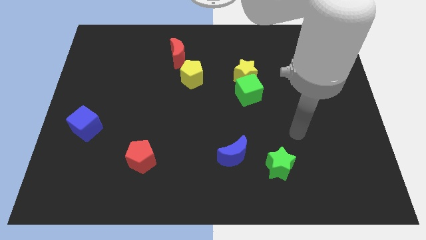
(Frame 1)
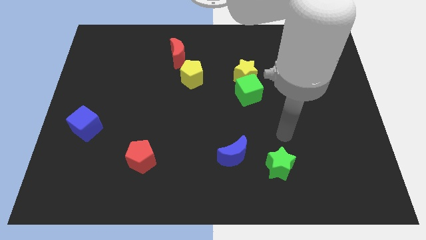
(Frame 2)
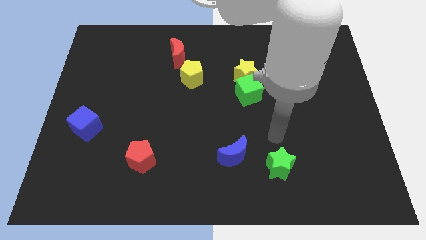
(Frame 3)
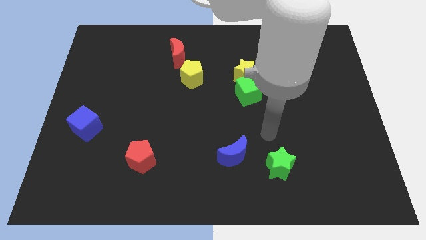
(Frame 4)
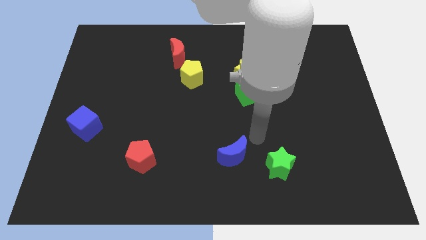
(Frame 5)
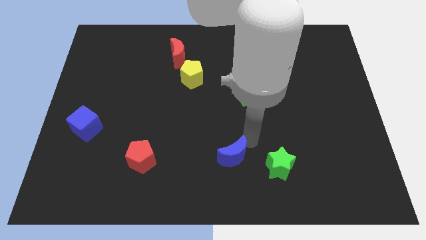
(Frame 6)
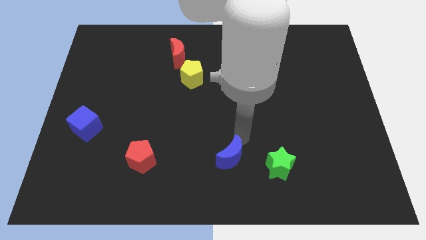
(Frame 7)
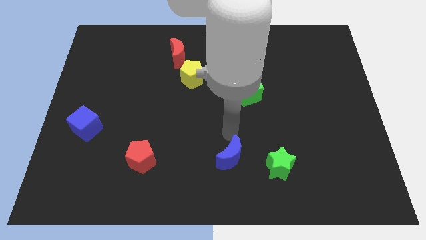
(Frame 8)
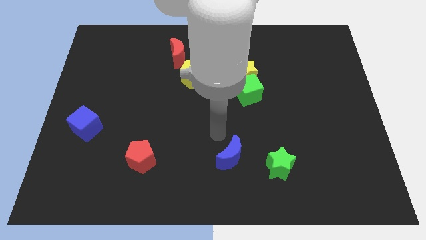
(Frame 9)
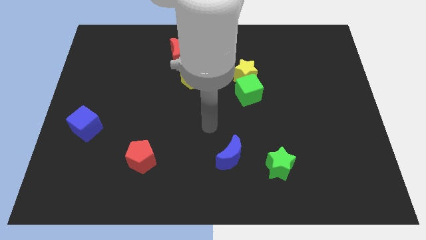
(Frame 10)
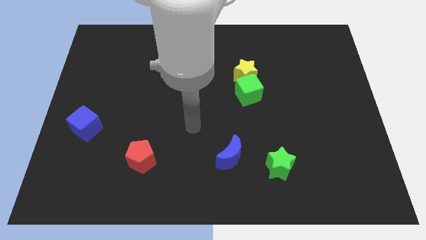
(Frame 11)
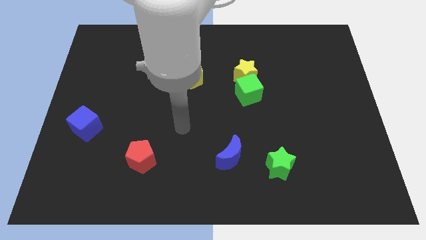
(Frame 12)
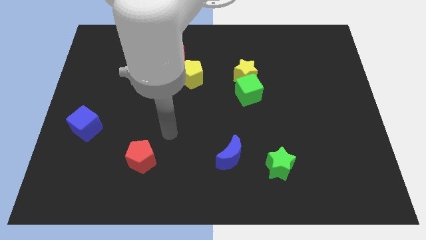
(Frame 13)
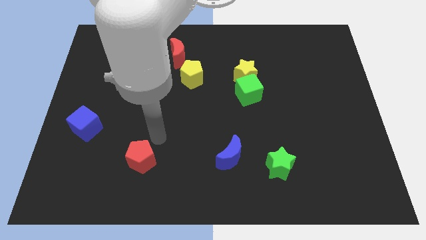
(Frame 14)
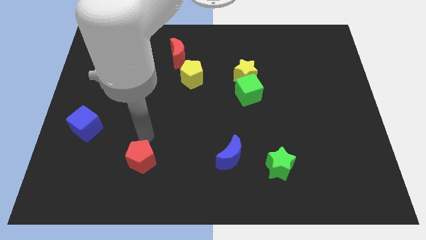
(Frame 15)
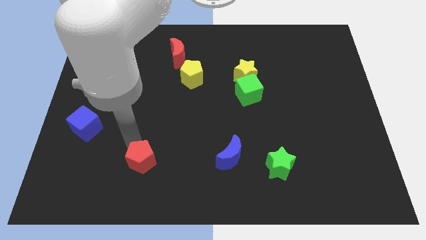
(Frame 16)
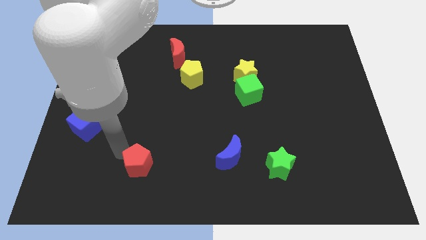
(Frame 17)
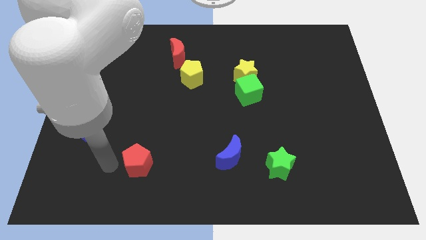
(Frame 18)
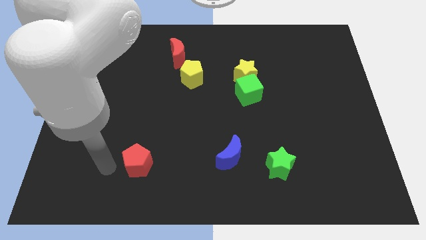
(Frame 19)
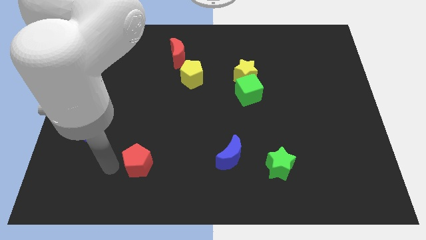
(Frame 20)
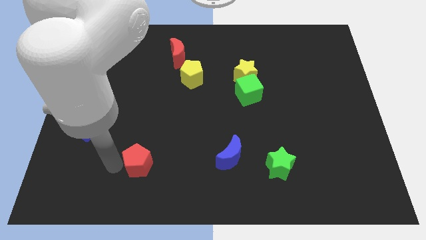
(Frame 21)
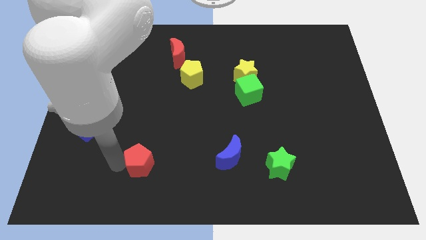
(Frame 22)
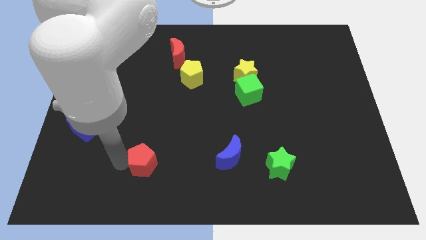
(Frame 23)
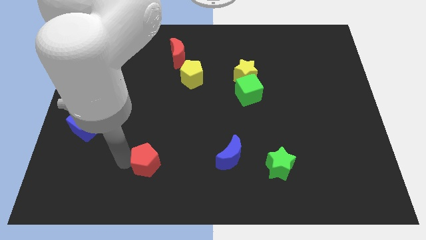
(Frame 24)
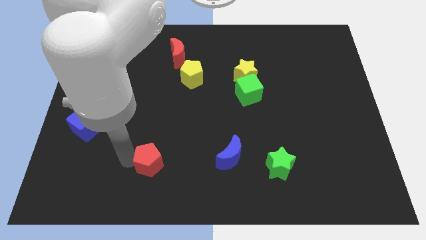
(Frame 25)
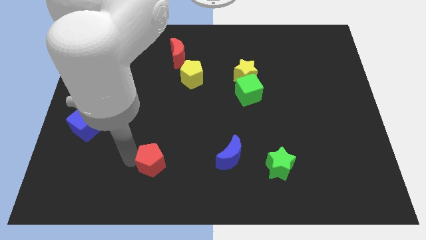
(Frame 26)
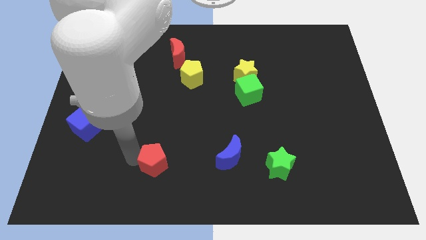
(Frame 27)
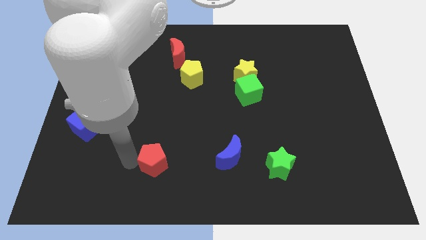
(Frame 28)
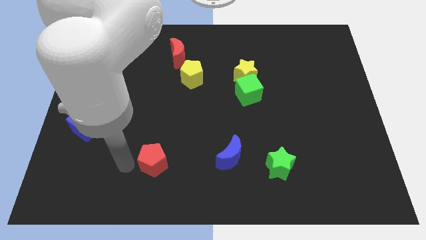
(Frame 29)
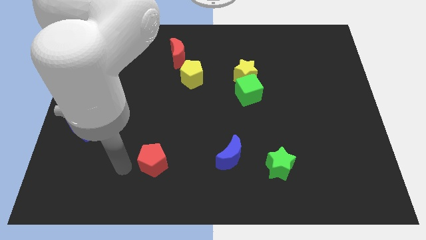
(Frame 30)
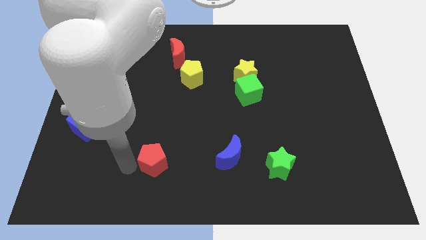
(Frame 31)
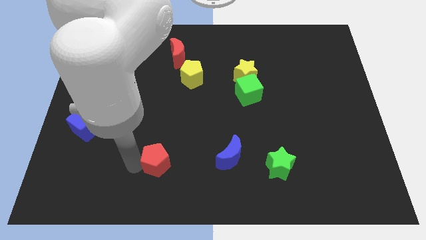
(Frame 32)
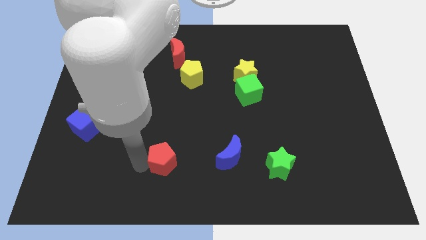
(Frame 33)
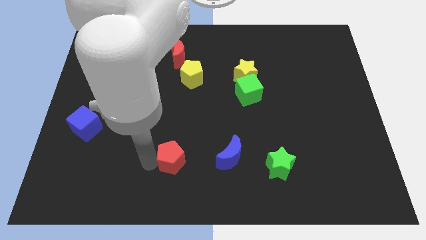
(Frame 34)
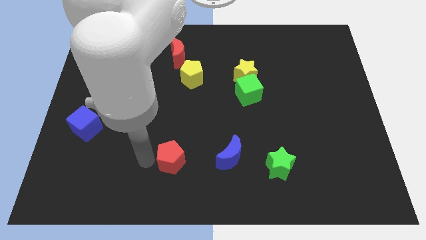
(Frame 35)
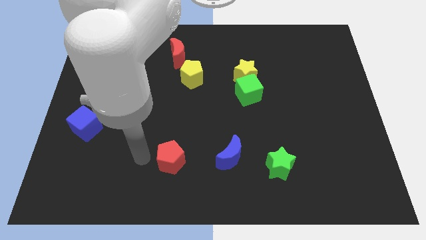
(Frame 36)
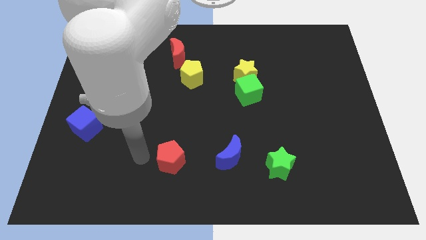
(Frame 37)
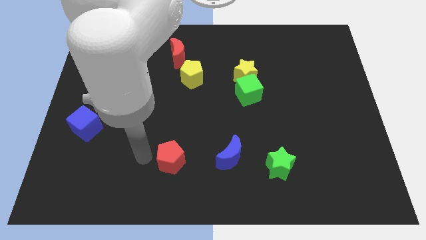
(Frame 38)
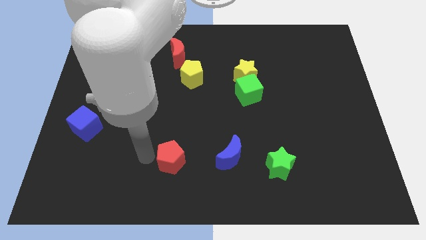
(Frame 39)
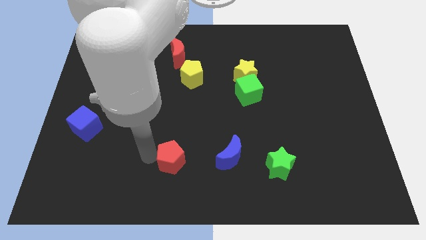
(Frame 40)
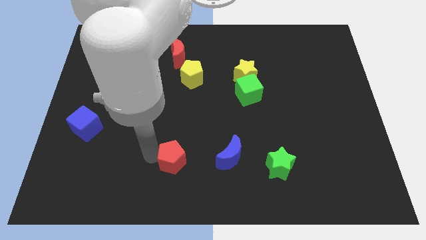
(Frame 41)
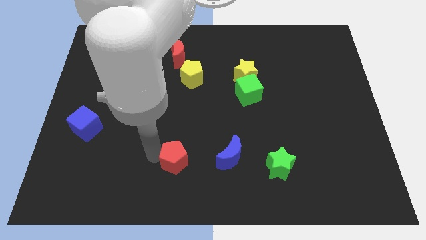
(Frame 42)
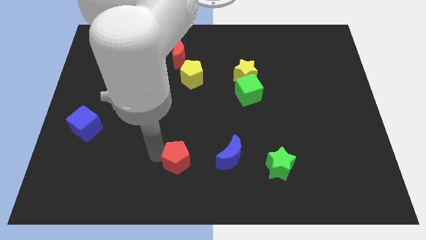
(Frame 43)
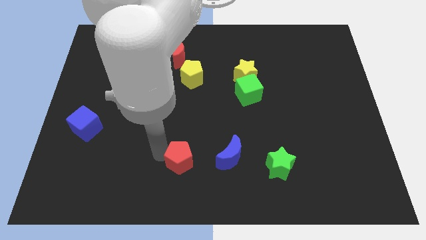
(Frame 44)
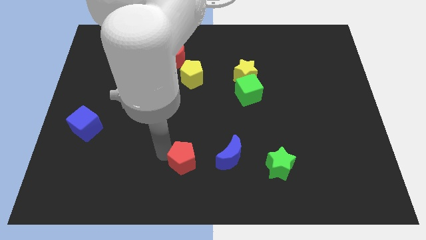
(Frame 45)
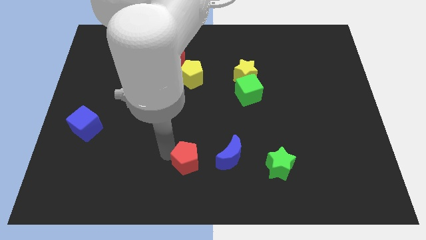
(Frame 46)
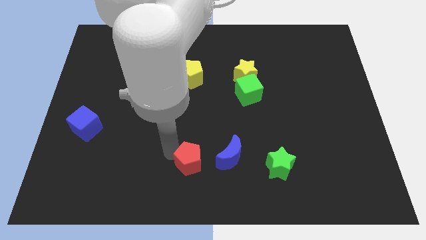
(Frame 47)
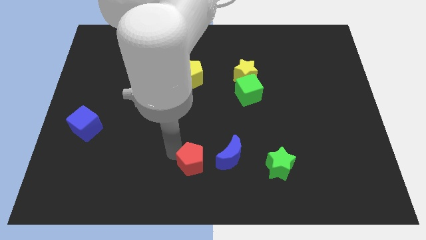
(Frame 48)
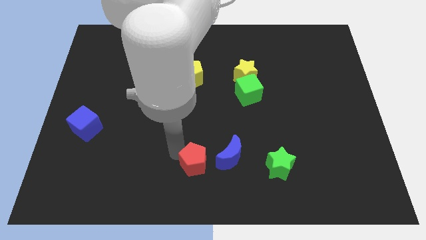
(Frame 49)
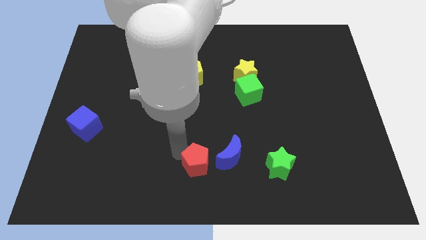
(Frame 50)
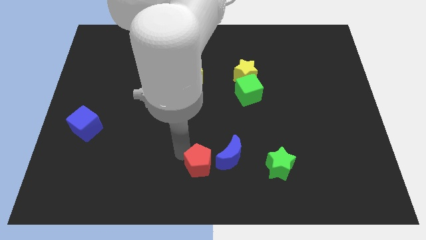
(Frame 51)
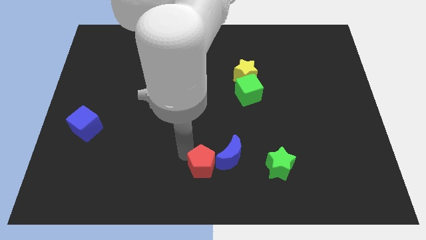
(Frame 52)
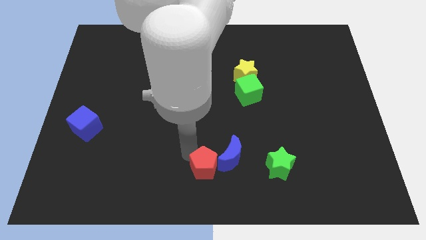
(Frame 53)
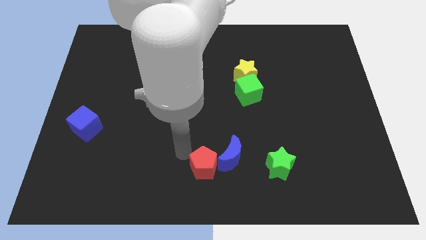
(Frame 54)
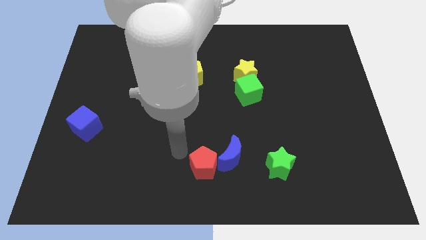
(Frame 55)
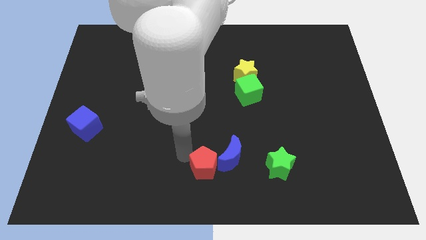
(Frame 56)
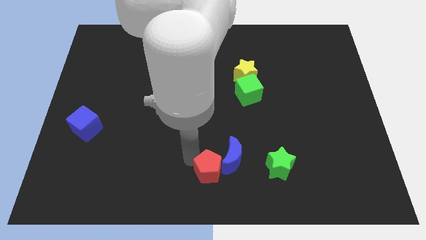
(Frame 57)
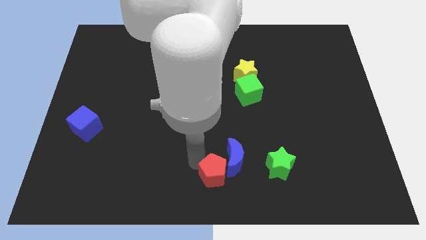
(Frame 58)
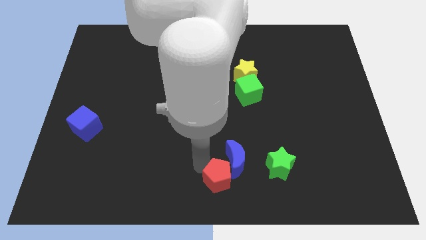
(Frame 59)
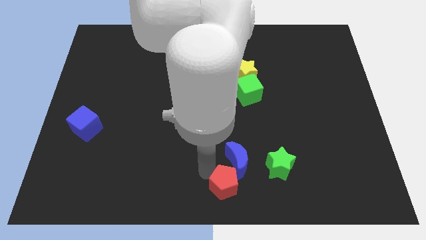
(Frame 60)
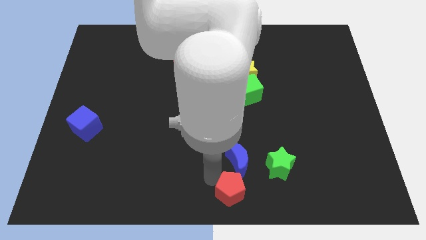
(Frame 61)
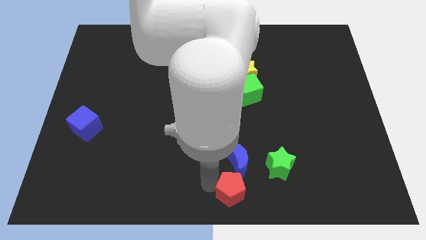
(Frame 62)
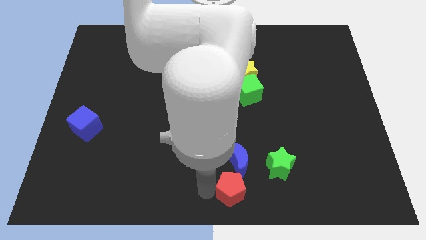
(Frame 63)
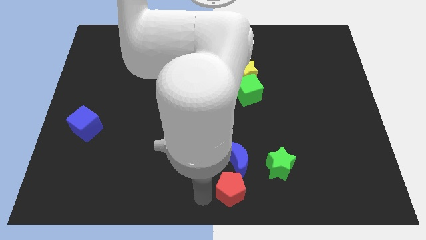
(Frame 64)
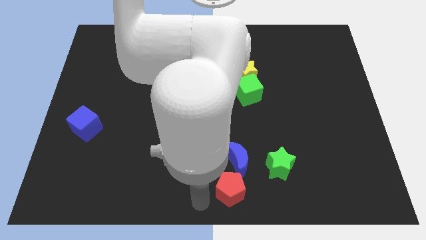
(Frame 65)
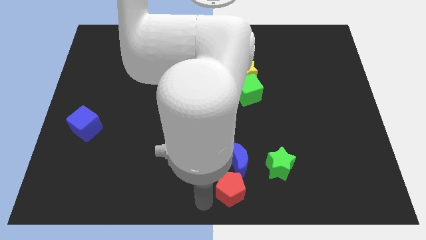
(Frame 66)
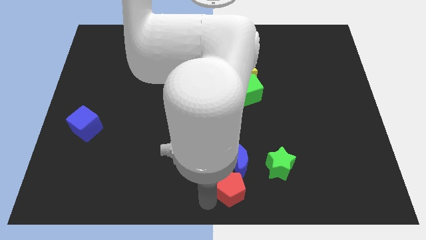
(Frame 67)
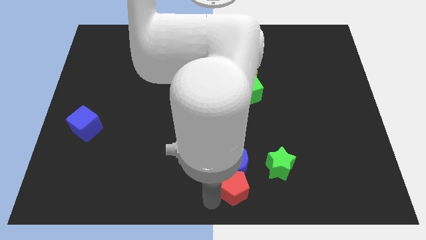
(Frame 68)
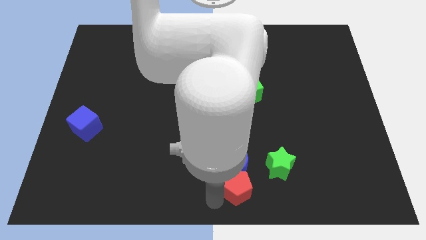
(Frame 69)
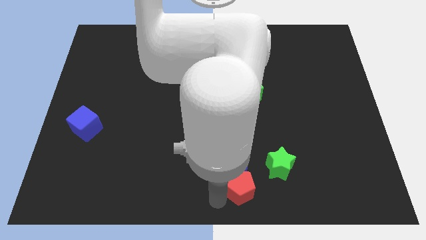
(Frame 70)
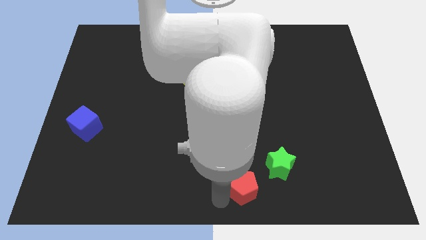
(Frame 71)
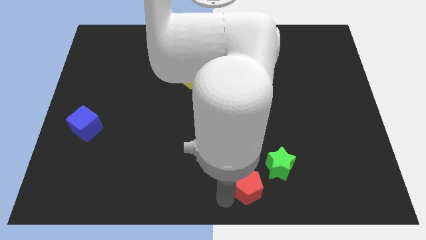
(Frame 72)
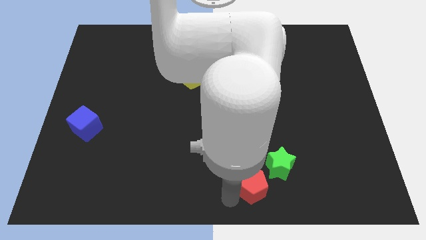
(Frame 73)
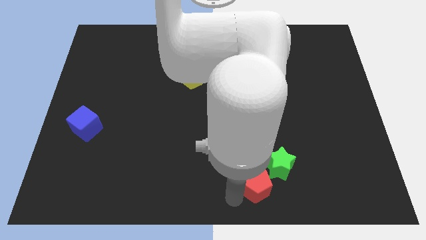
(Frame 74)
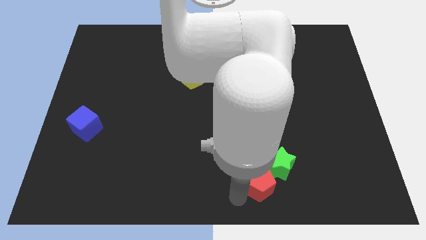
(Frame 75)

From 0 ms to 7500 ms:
move the red pentagon next to the green star
